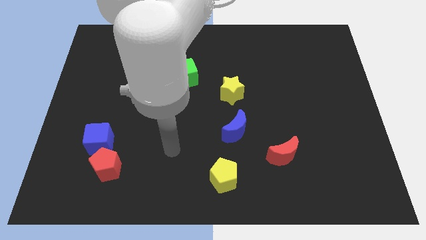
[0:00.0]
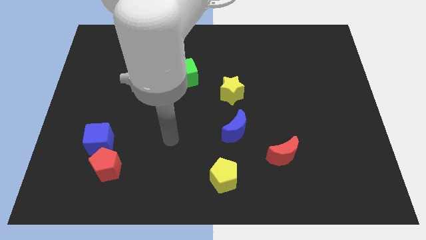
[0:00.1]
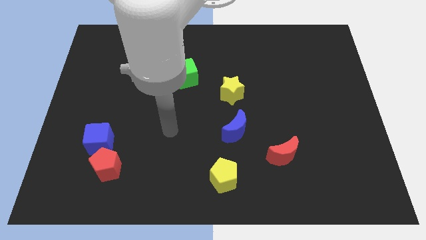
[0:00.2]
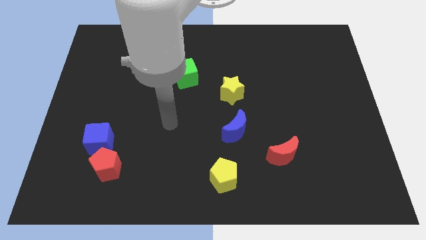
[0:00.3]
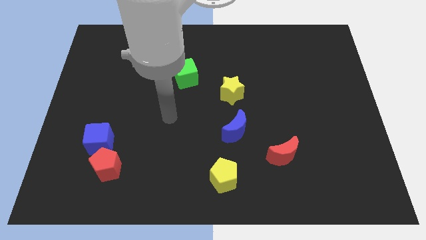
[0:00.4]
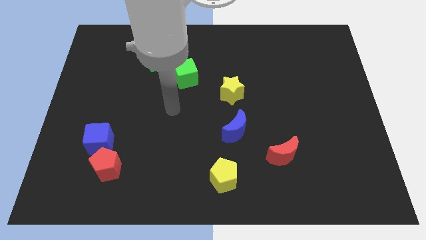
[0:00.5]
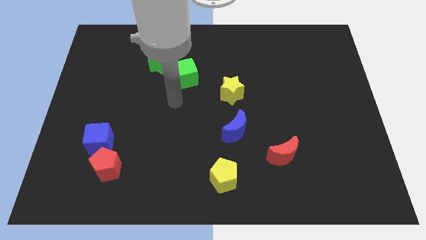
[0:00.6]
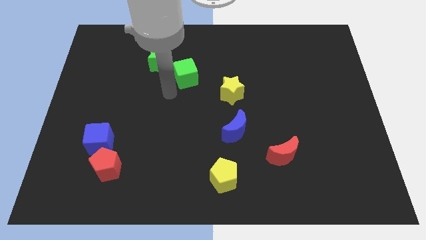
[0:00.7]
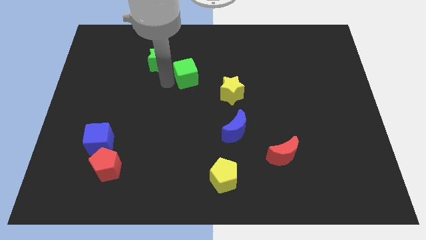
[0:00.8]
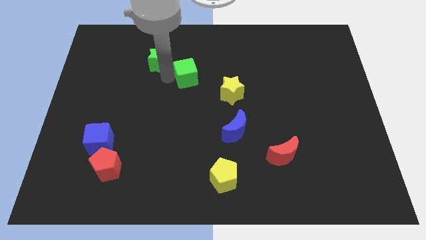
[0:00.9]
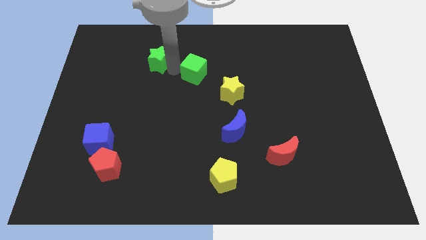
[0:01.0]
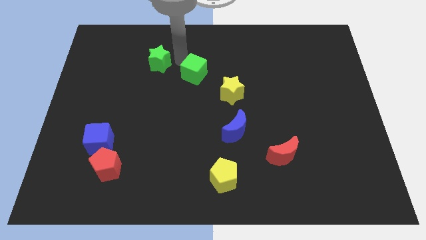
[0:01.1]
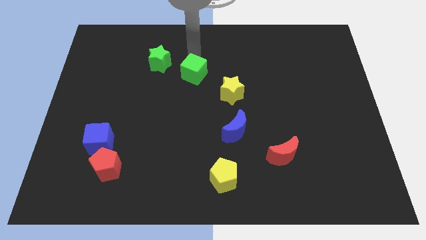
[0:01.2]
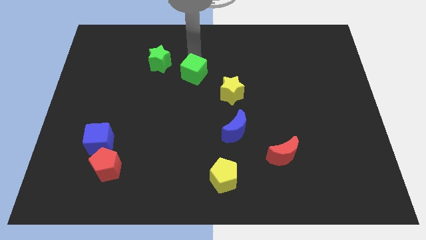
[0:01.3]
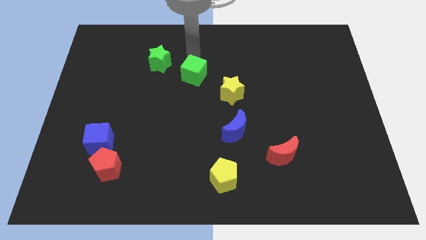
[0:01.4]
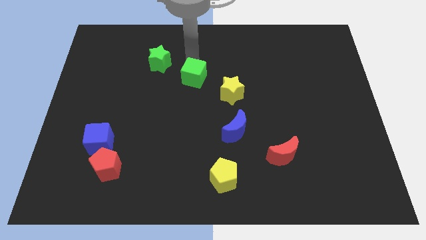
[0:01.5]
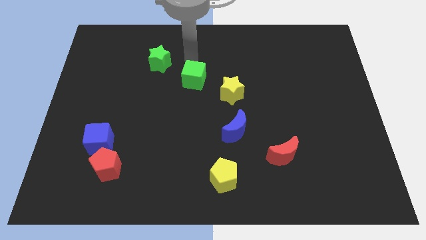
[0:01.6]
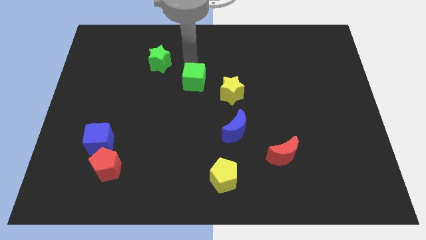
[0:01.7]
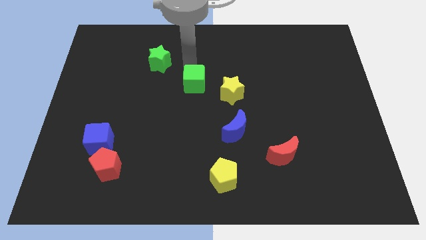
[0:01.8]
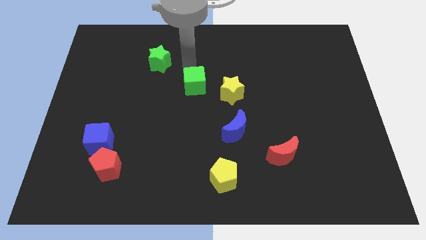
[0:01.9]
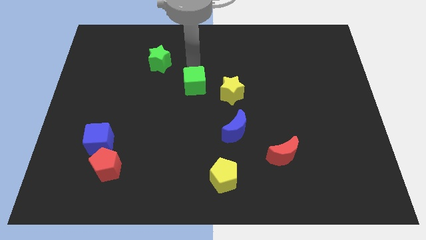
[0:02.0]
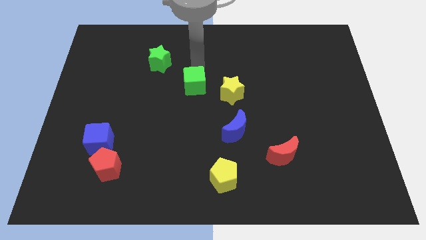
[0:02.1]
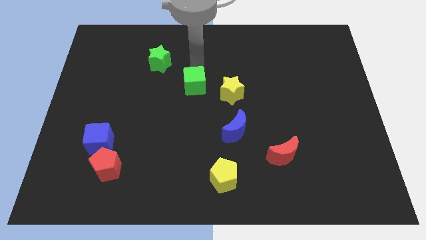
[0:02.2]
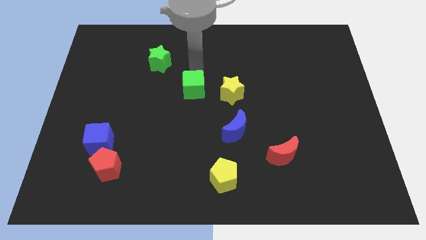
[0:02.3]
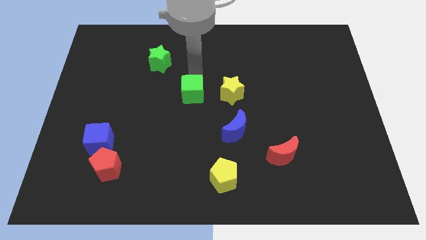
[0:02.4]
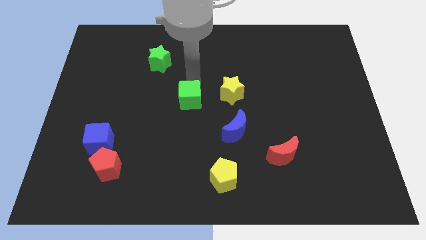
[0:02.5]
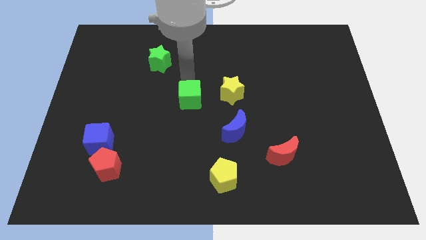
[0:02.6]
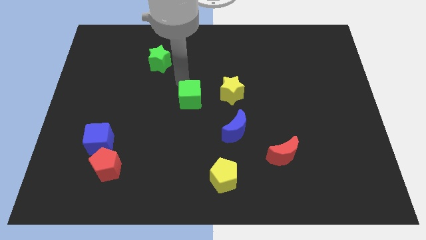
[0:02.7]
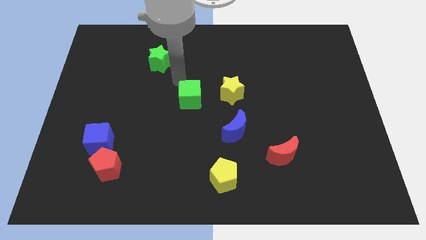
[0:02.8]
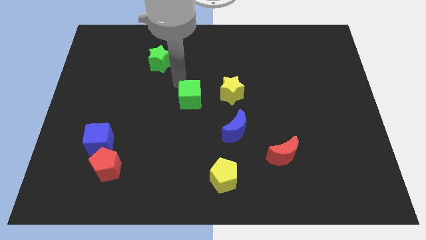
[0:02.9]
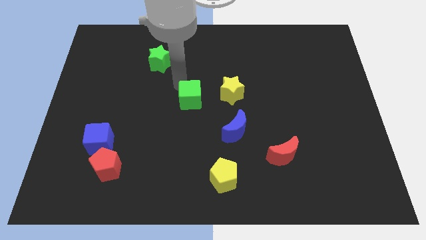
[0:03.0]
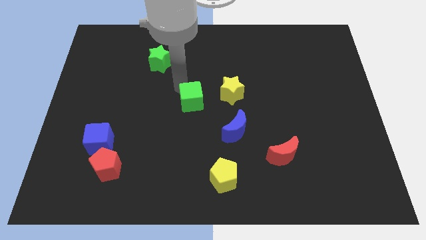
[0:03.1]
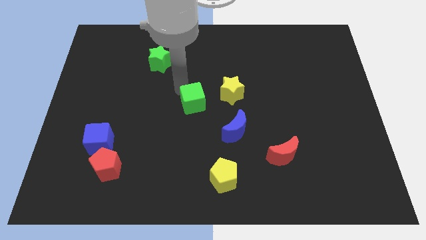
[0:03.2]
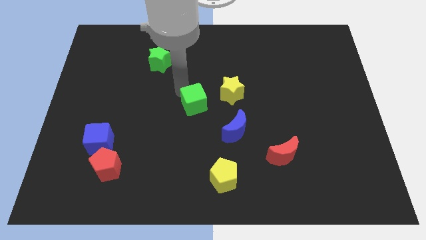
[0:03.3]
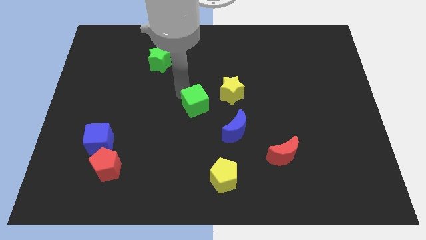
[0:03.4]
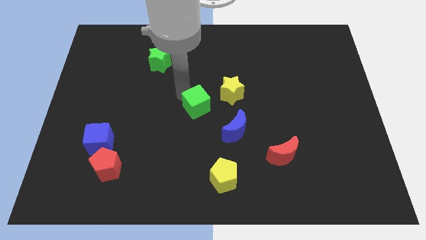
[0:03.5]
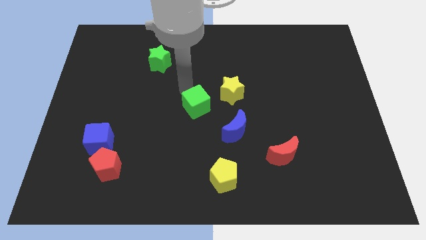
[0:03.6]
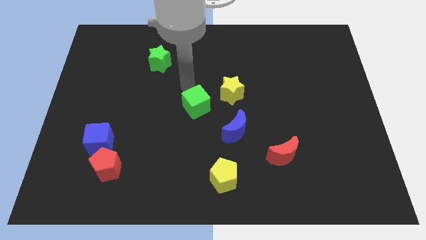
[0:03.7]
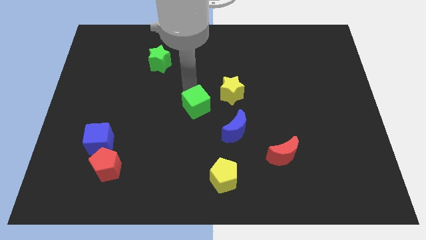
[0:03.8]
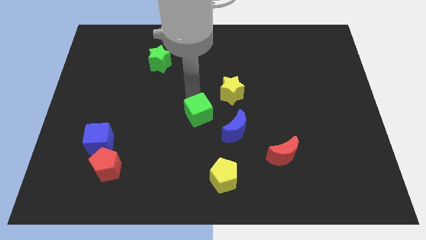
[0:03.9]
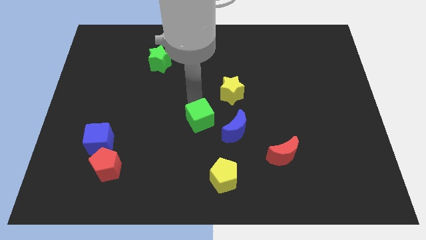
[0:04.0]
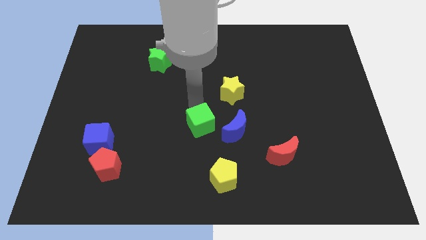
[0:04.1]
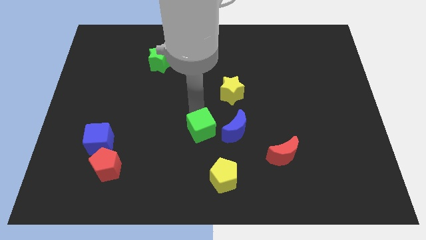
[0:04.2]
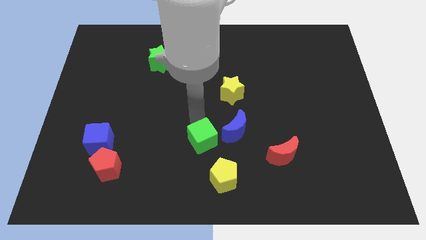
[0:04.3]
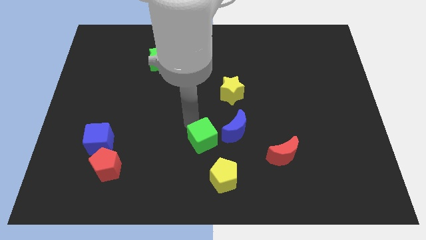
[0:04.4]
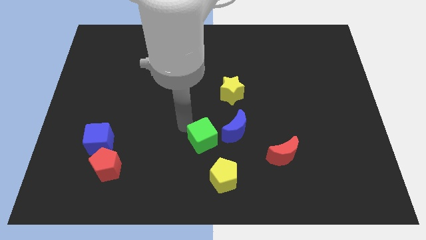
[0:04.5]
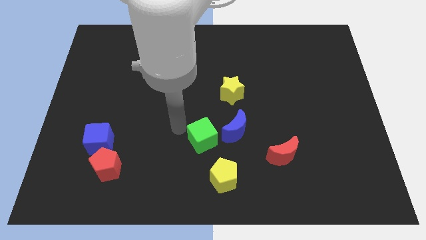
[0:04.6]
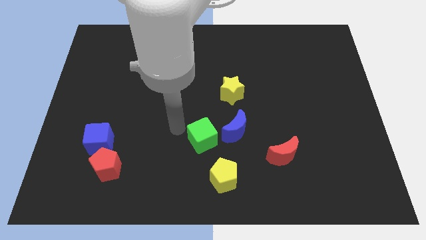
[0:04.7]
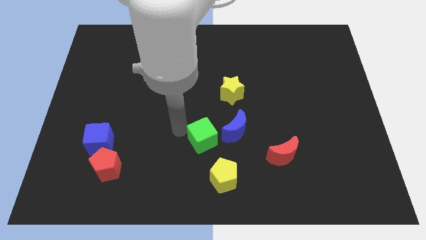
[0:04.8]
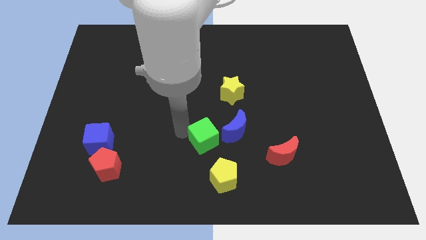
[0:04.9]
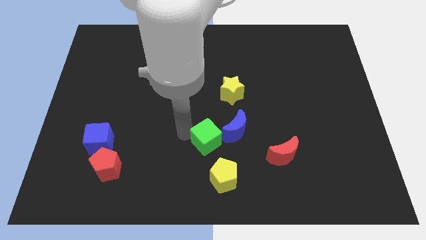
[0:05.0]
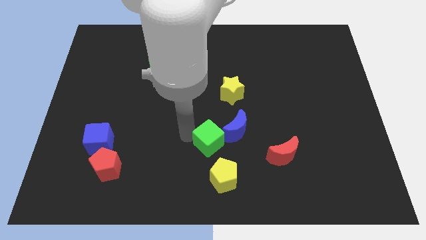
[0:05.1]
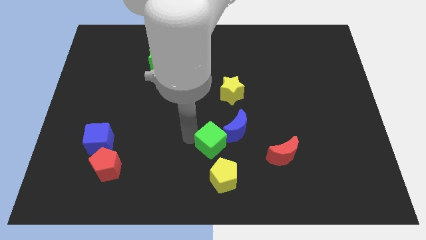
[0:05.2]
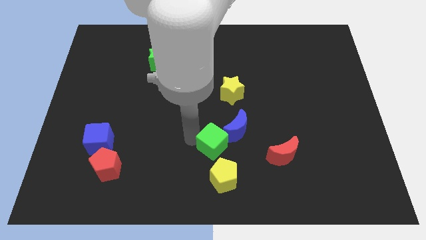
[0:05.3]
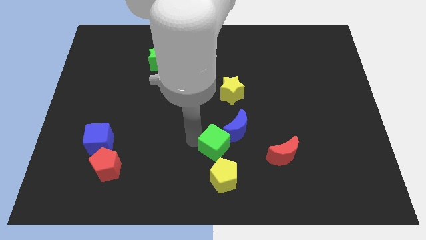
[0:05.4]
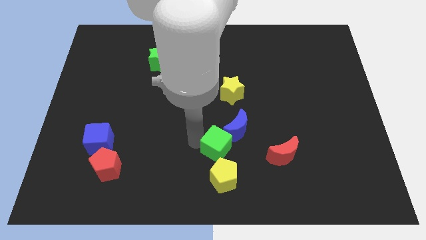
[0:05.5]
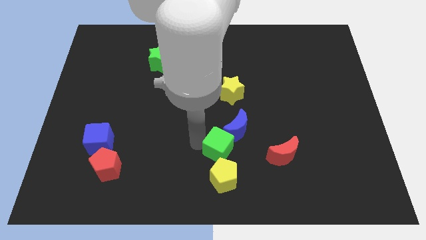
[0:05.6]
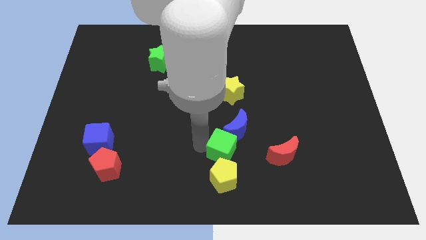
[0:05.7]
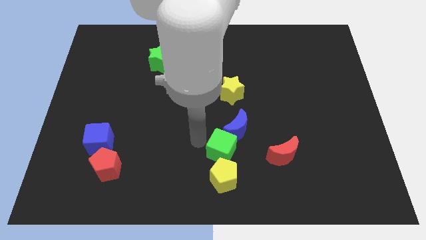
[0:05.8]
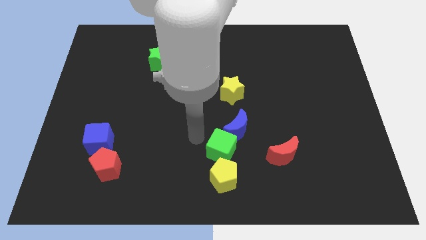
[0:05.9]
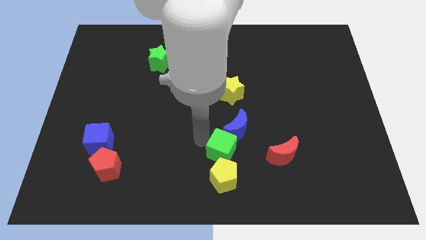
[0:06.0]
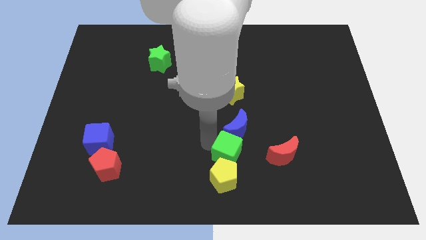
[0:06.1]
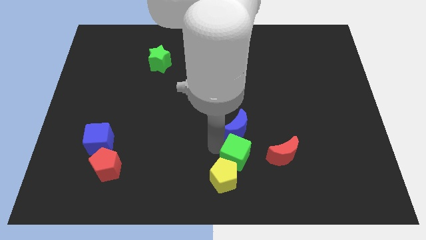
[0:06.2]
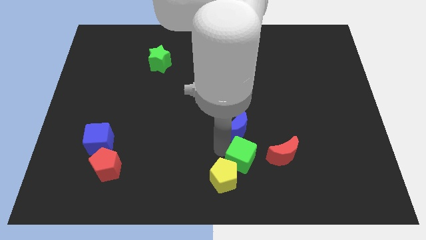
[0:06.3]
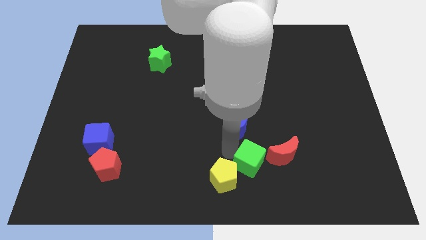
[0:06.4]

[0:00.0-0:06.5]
push the green cube to the bottom left of the red moon
